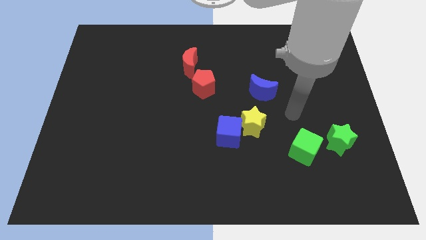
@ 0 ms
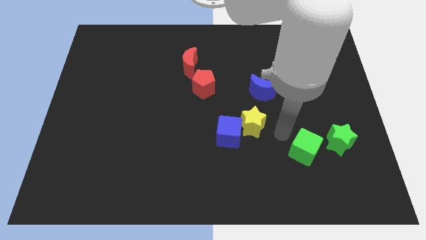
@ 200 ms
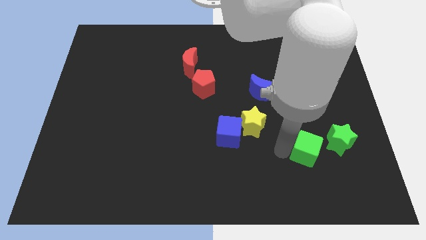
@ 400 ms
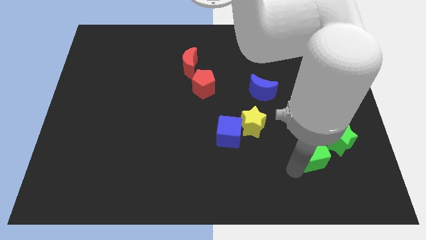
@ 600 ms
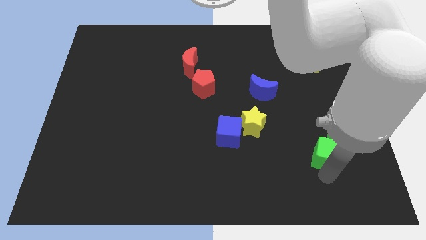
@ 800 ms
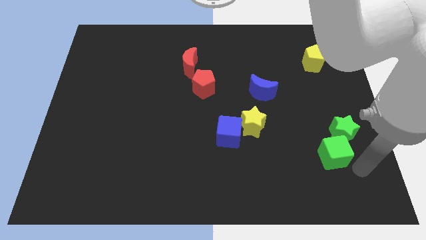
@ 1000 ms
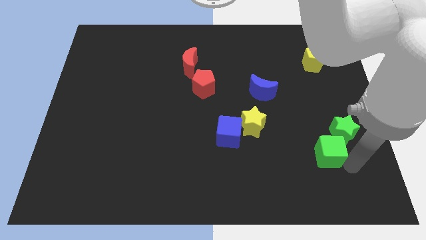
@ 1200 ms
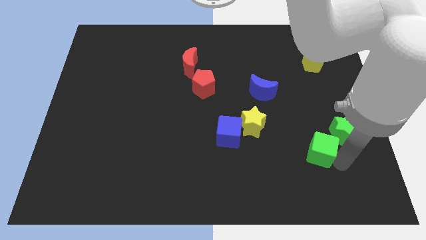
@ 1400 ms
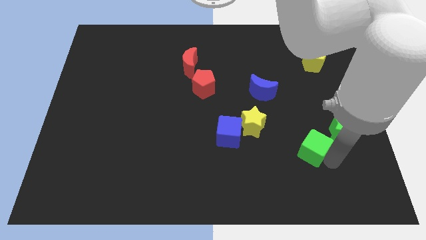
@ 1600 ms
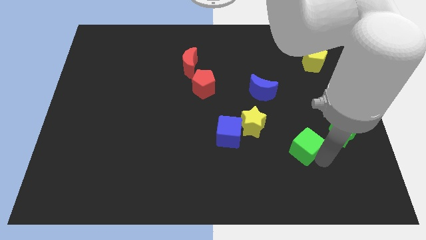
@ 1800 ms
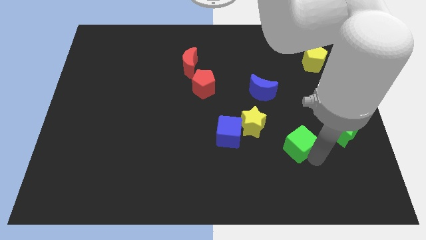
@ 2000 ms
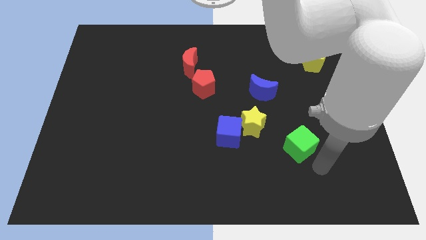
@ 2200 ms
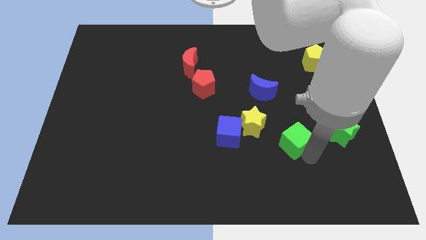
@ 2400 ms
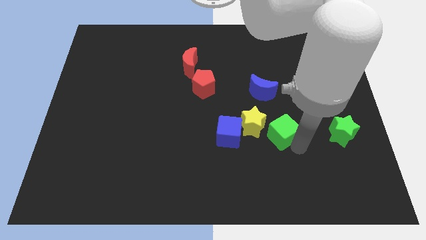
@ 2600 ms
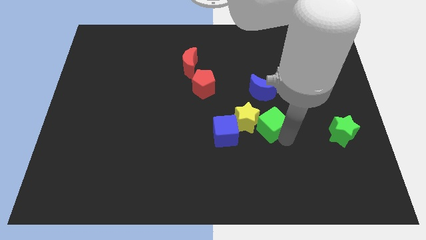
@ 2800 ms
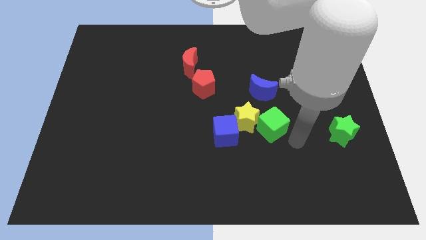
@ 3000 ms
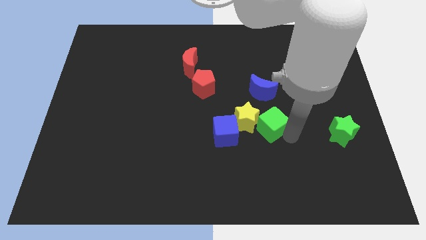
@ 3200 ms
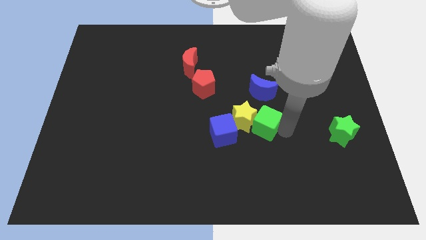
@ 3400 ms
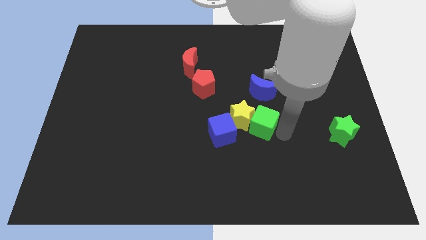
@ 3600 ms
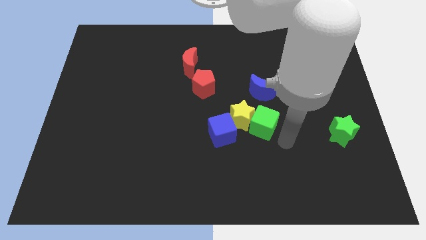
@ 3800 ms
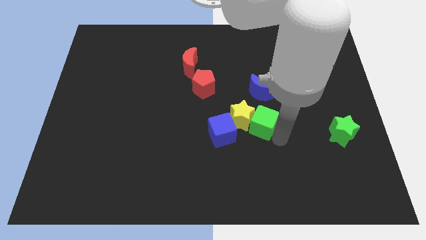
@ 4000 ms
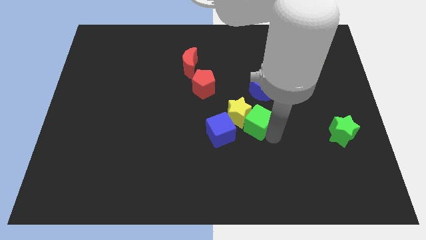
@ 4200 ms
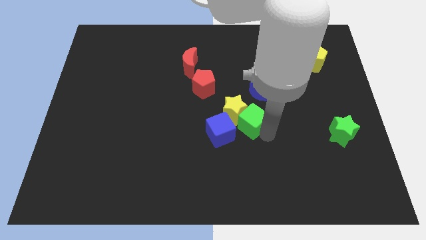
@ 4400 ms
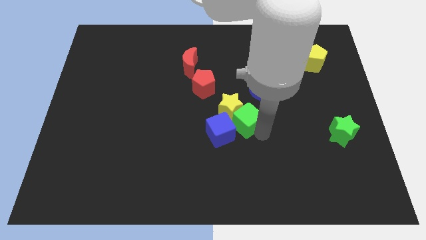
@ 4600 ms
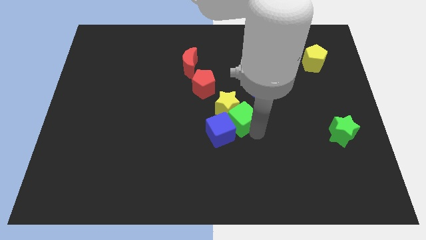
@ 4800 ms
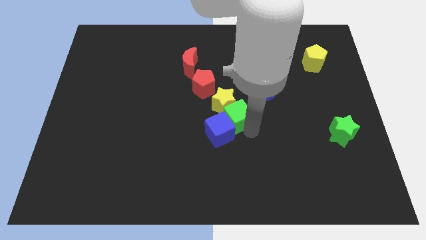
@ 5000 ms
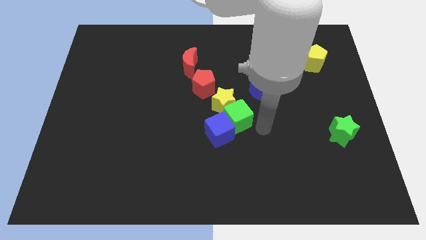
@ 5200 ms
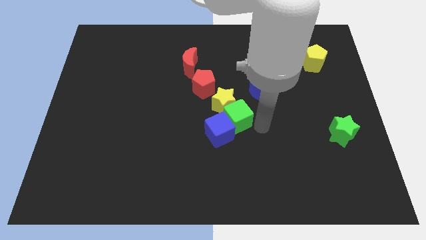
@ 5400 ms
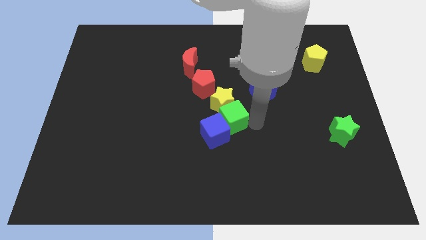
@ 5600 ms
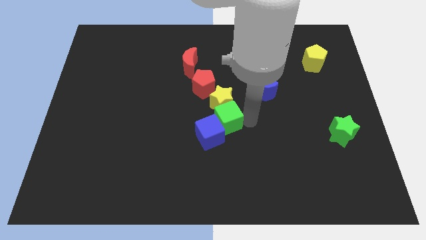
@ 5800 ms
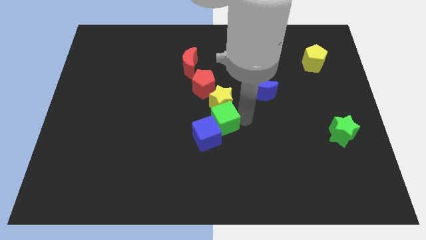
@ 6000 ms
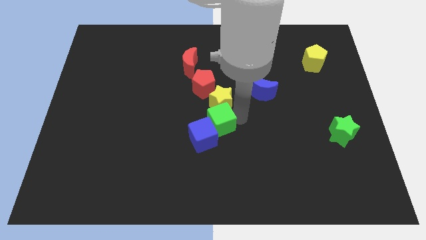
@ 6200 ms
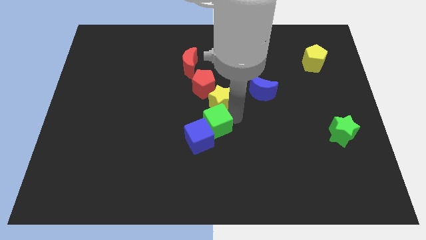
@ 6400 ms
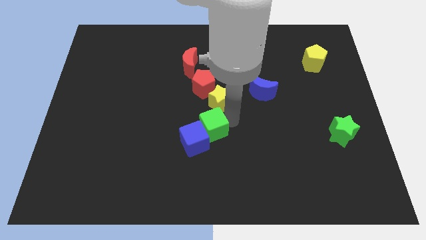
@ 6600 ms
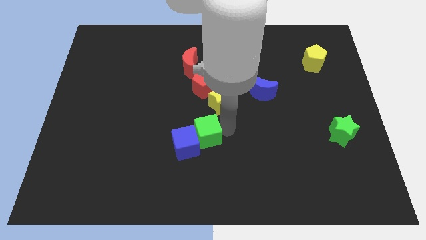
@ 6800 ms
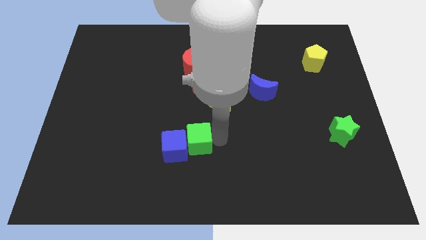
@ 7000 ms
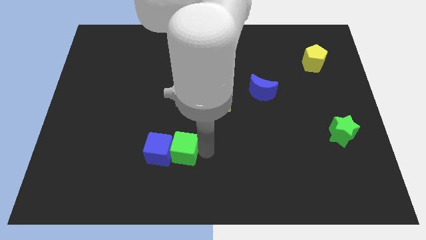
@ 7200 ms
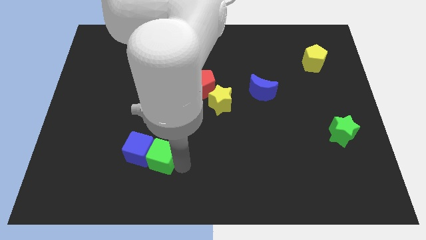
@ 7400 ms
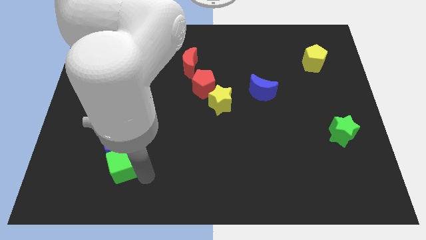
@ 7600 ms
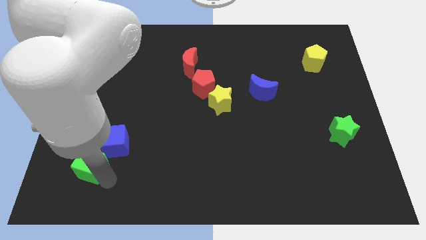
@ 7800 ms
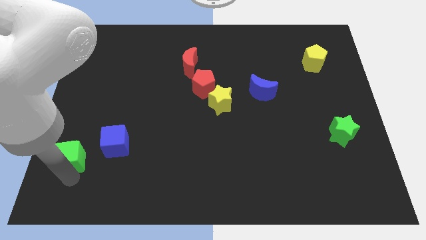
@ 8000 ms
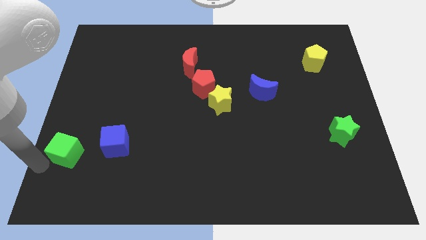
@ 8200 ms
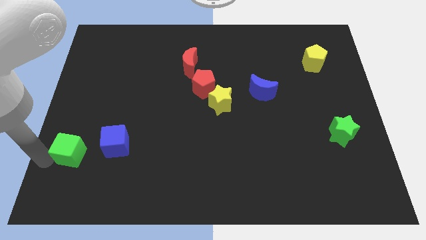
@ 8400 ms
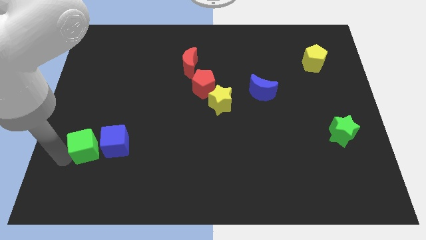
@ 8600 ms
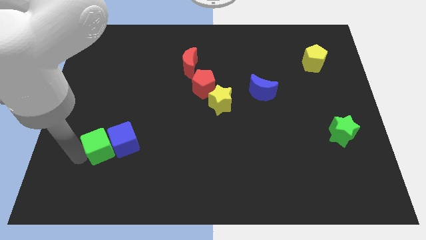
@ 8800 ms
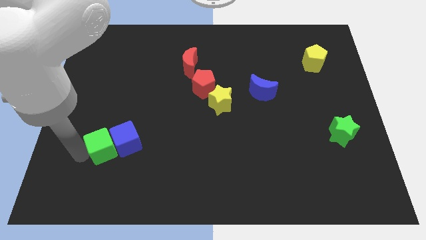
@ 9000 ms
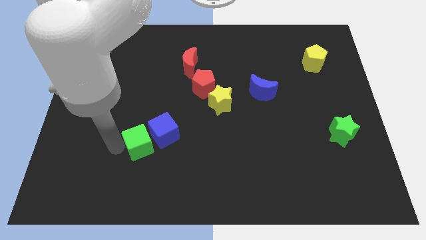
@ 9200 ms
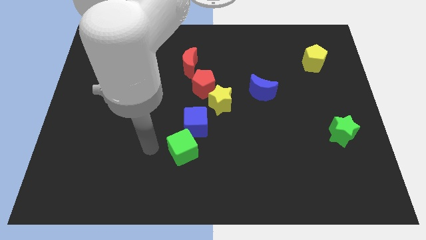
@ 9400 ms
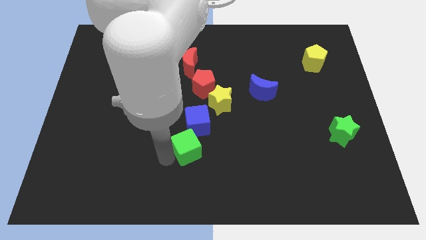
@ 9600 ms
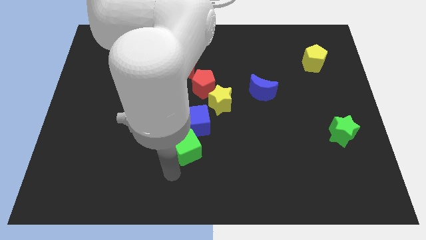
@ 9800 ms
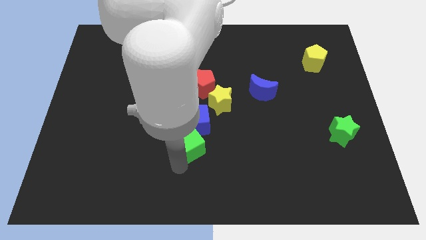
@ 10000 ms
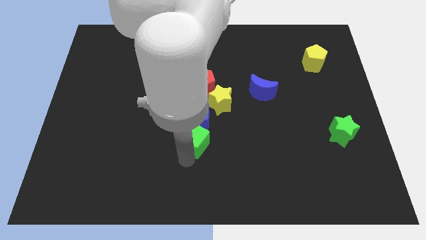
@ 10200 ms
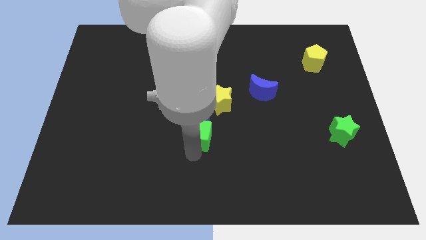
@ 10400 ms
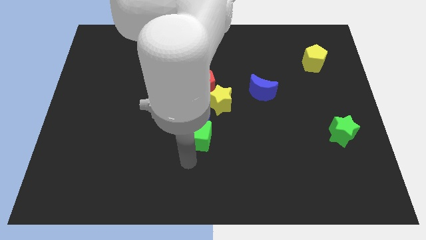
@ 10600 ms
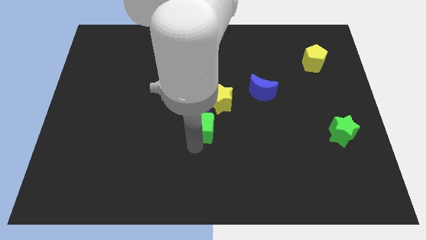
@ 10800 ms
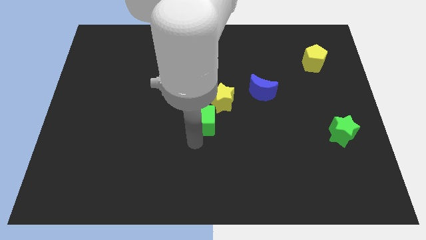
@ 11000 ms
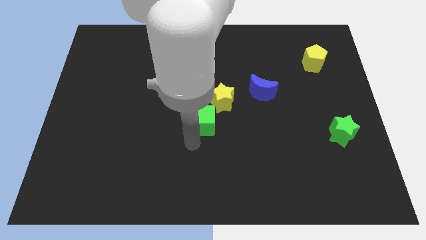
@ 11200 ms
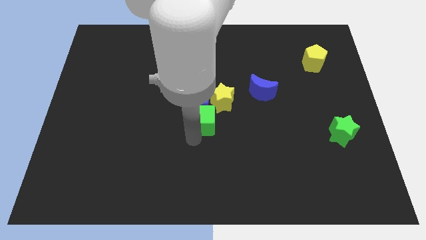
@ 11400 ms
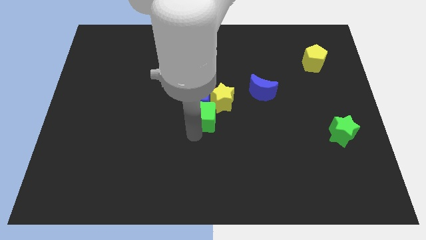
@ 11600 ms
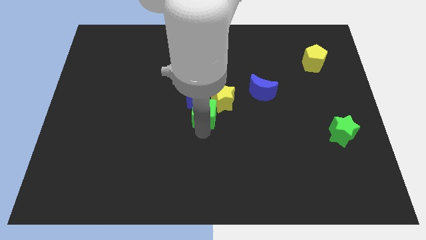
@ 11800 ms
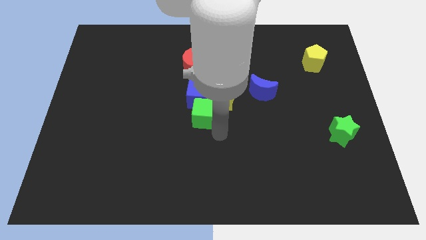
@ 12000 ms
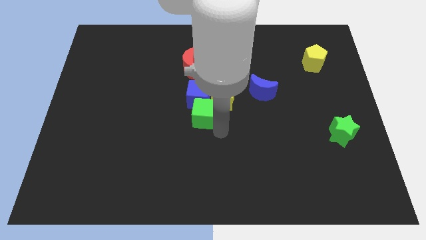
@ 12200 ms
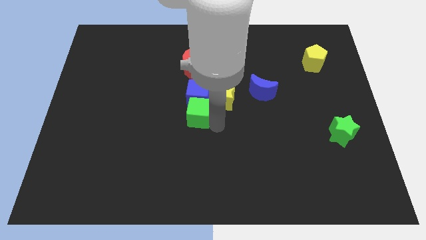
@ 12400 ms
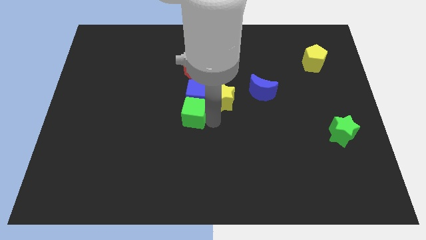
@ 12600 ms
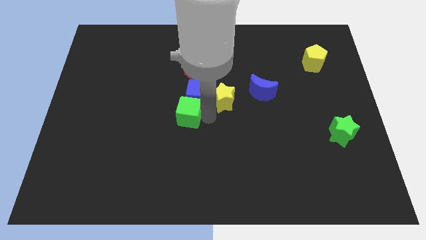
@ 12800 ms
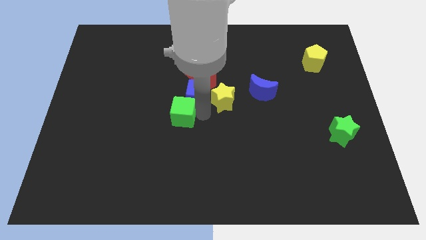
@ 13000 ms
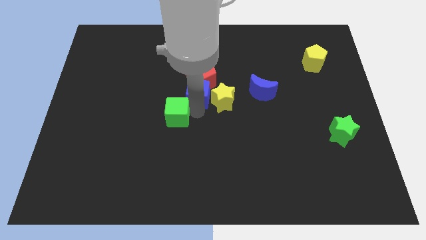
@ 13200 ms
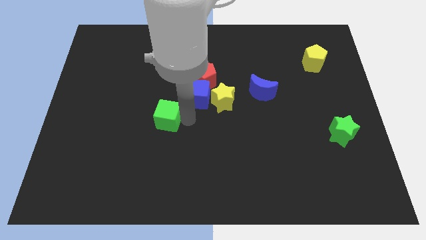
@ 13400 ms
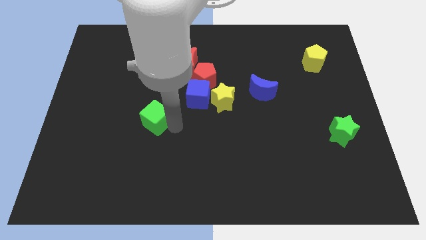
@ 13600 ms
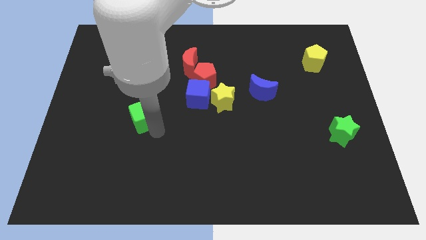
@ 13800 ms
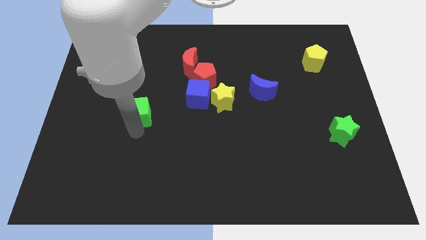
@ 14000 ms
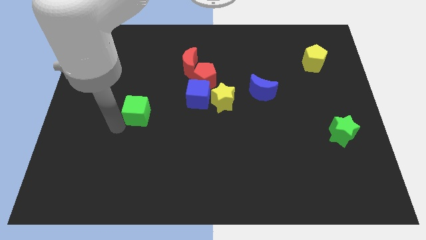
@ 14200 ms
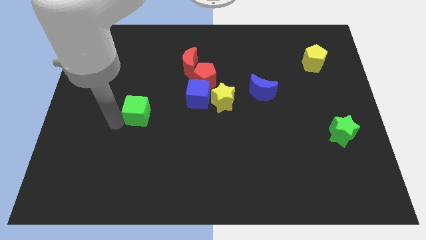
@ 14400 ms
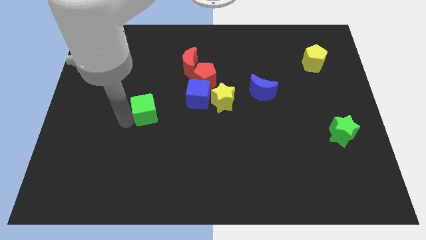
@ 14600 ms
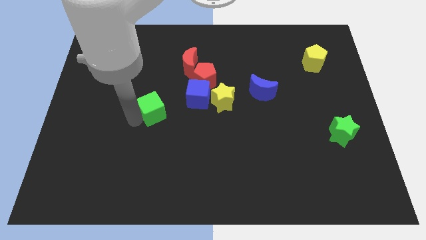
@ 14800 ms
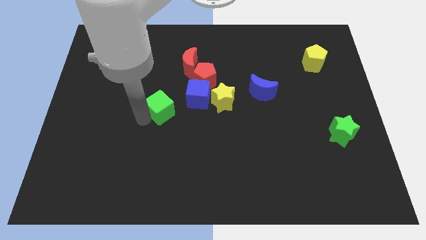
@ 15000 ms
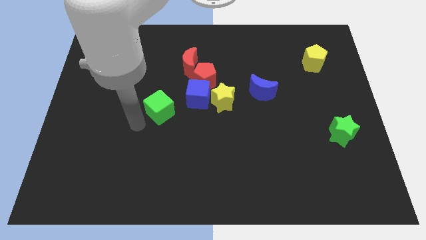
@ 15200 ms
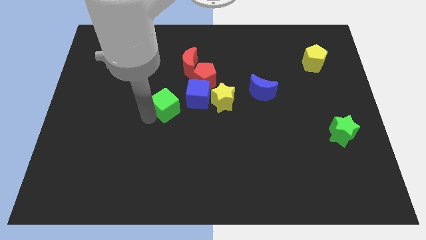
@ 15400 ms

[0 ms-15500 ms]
move the green cube to the bottom left of the red pentagon
